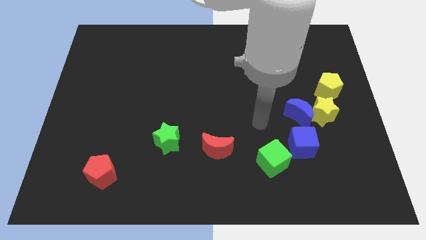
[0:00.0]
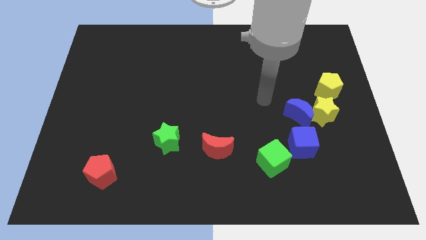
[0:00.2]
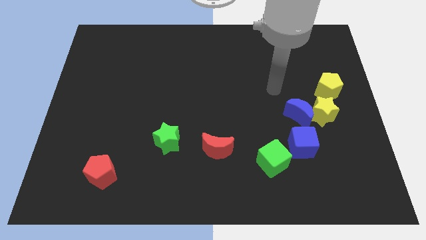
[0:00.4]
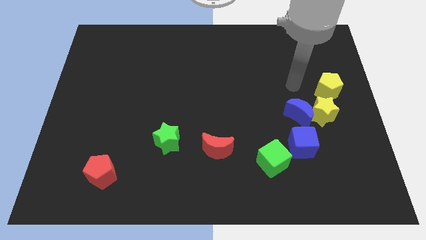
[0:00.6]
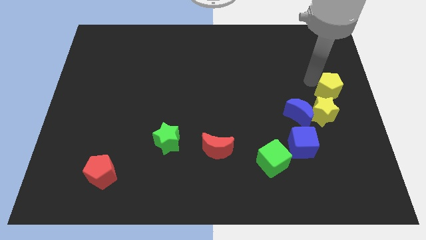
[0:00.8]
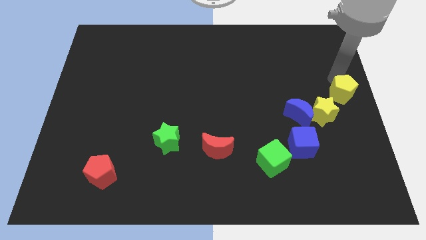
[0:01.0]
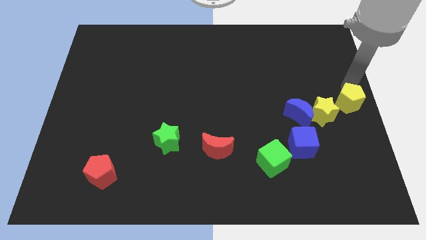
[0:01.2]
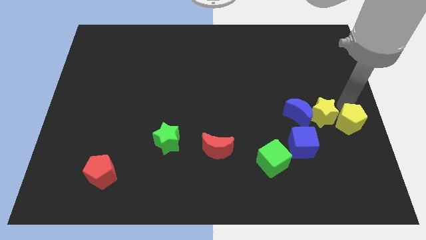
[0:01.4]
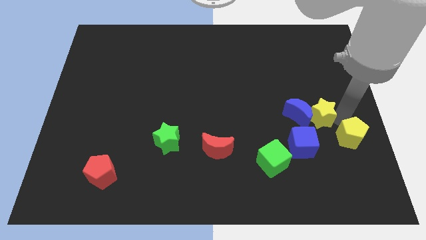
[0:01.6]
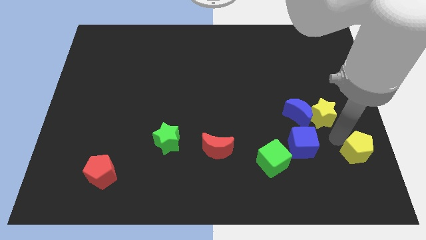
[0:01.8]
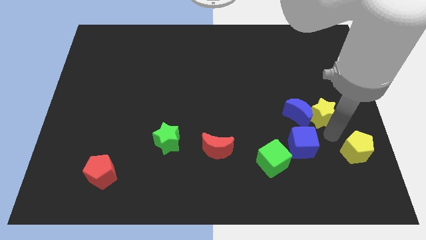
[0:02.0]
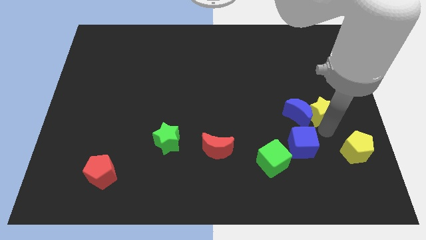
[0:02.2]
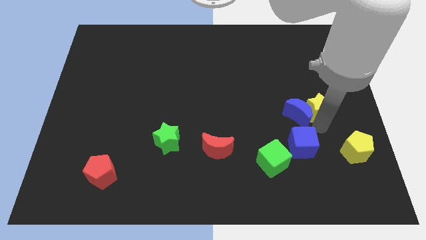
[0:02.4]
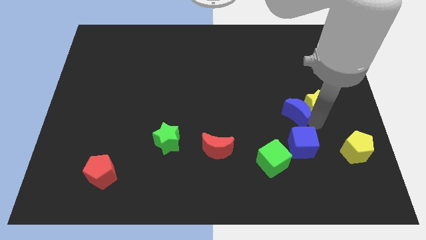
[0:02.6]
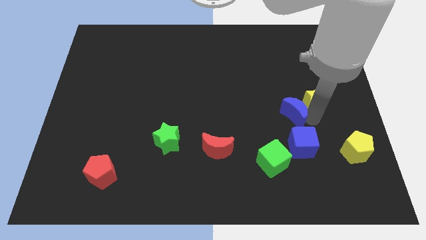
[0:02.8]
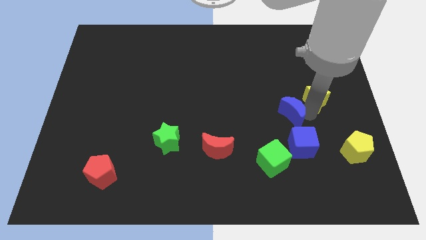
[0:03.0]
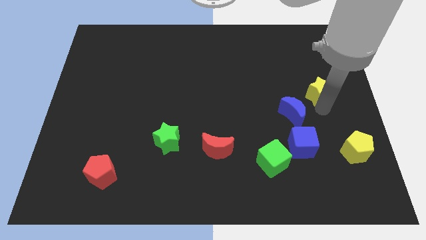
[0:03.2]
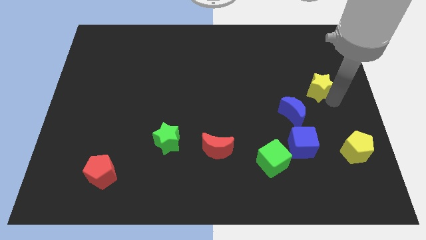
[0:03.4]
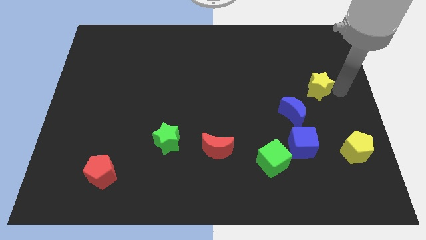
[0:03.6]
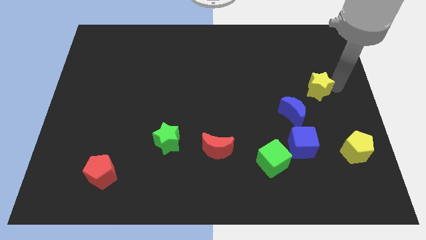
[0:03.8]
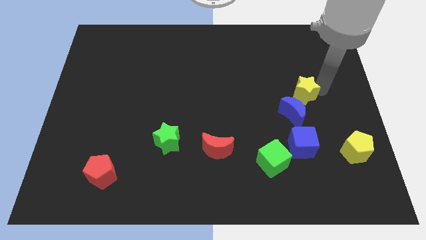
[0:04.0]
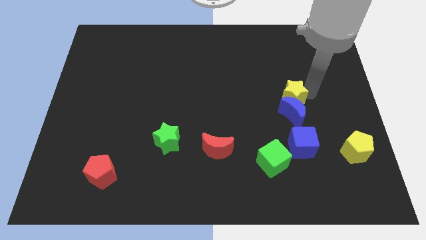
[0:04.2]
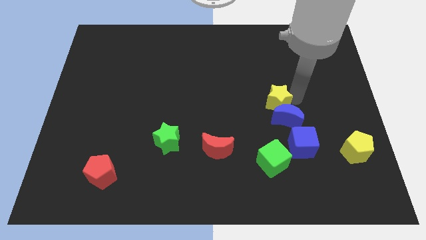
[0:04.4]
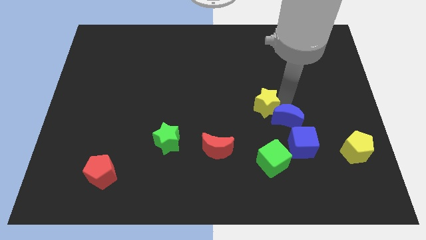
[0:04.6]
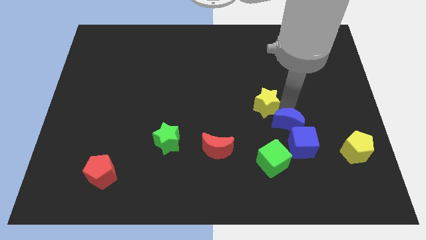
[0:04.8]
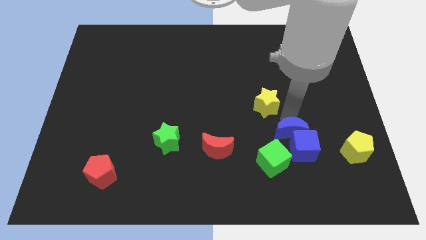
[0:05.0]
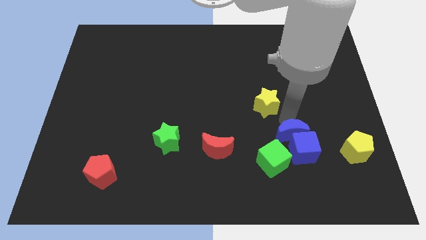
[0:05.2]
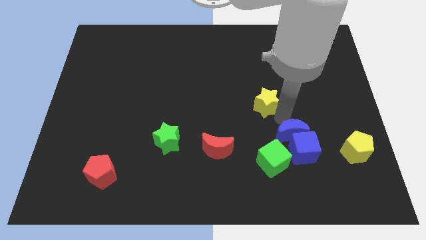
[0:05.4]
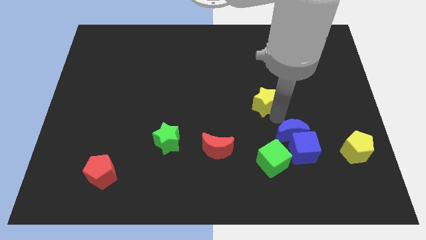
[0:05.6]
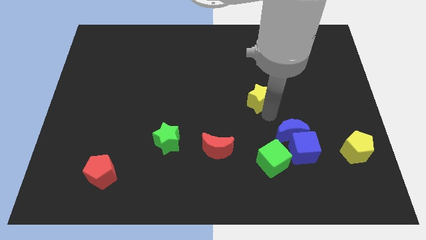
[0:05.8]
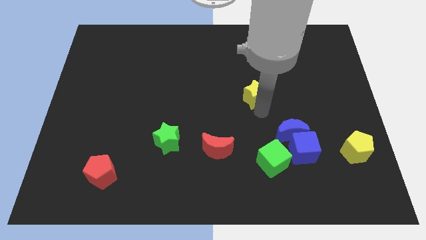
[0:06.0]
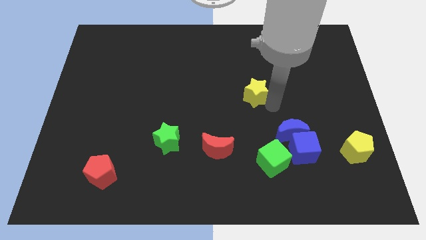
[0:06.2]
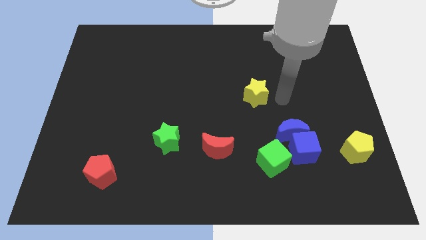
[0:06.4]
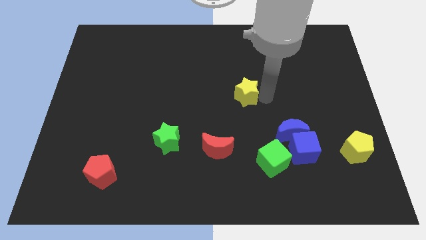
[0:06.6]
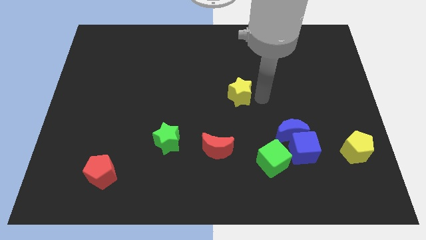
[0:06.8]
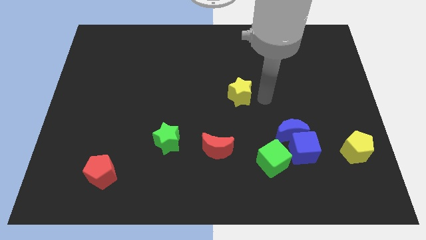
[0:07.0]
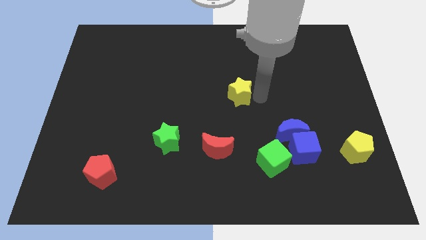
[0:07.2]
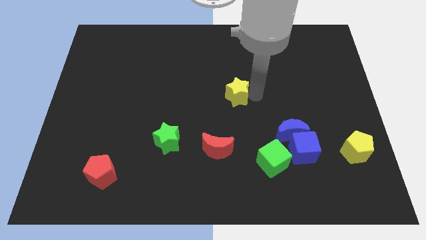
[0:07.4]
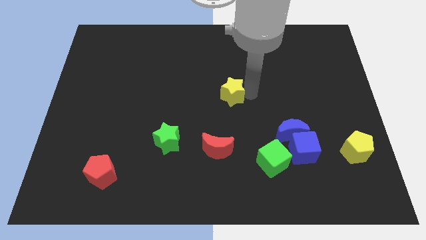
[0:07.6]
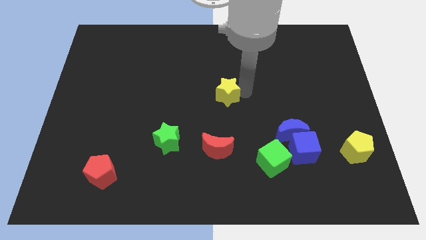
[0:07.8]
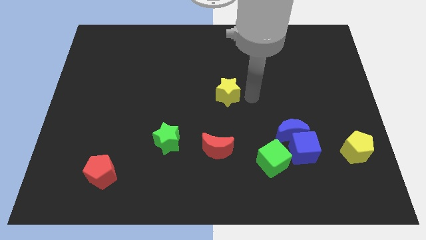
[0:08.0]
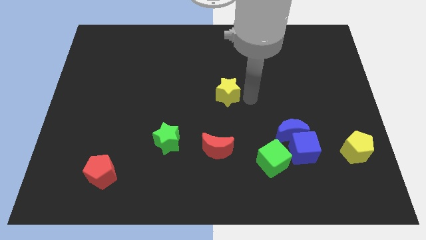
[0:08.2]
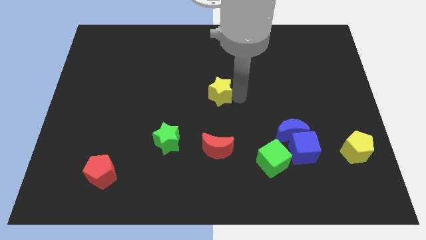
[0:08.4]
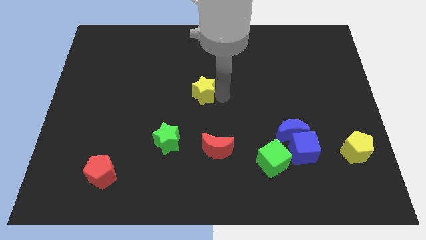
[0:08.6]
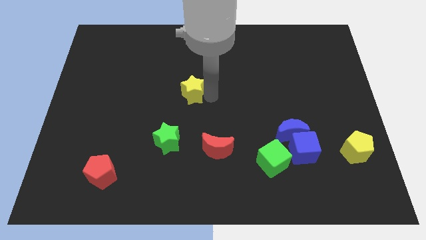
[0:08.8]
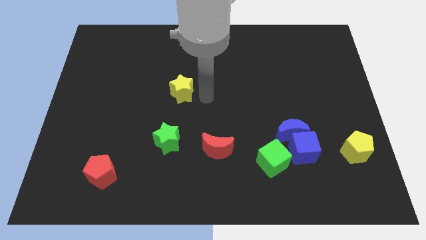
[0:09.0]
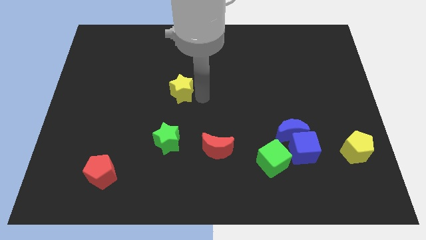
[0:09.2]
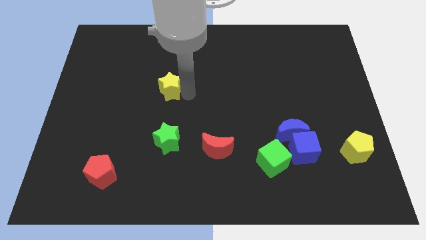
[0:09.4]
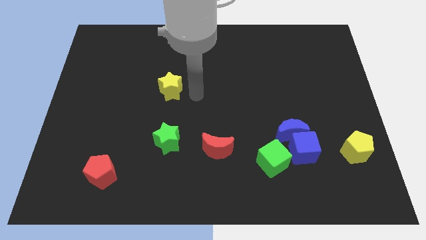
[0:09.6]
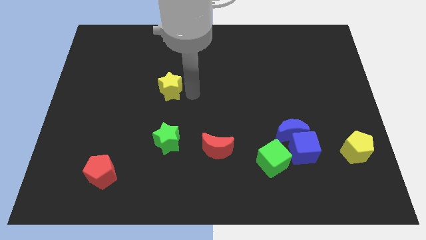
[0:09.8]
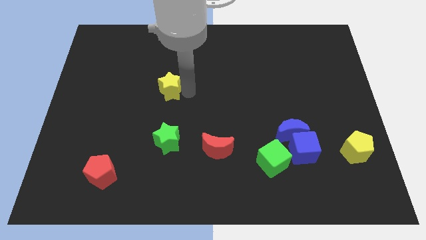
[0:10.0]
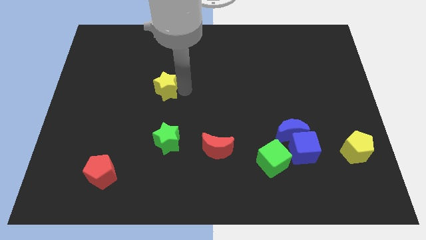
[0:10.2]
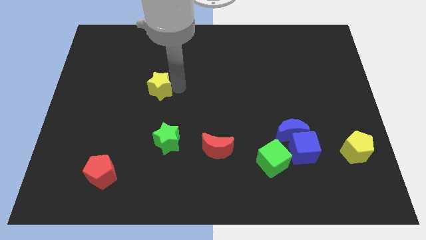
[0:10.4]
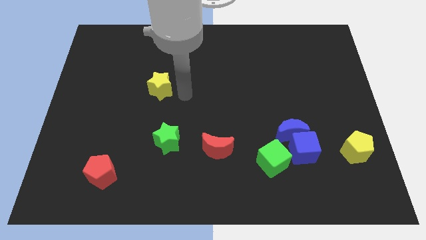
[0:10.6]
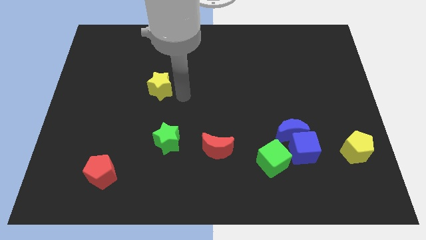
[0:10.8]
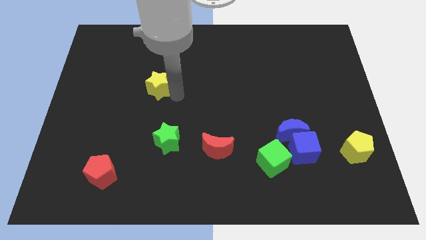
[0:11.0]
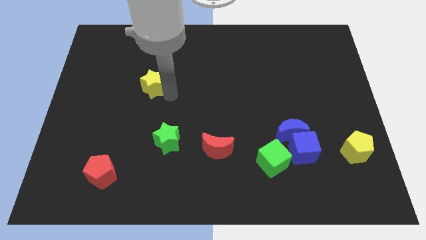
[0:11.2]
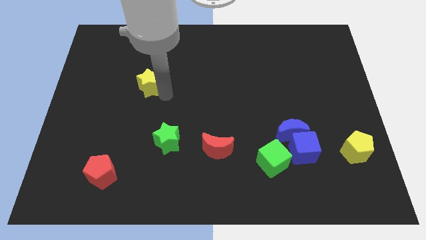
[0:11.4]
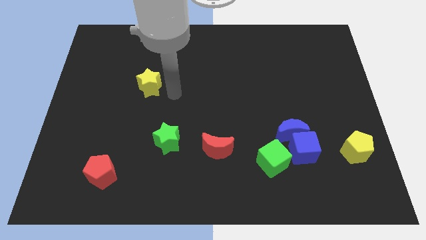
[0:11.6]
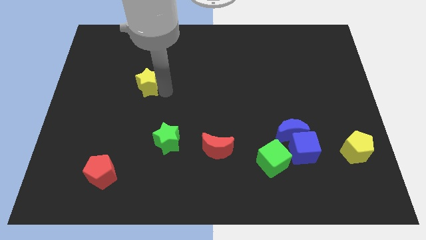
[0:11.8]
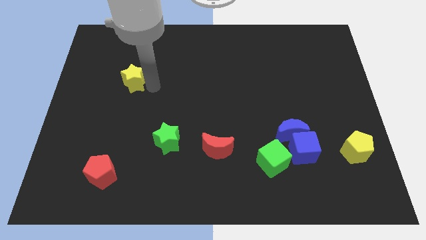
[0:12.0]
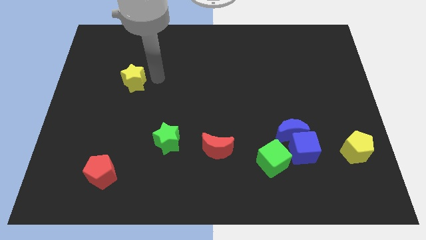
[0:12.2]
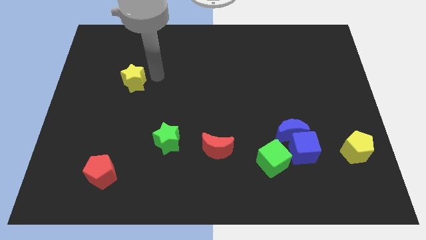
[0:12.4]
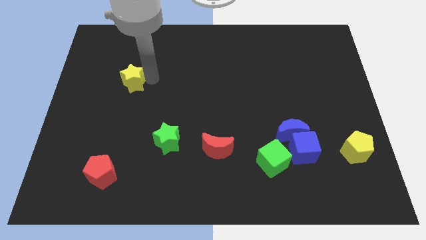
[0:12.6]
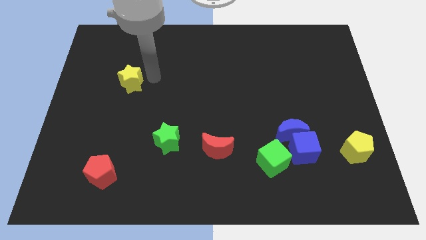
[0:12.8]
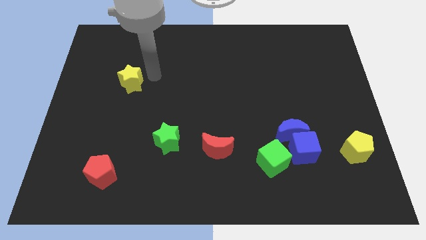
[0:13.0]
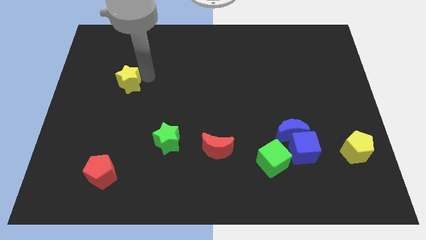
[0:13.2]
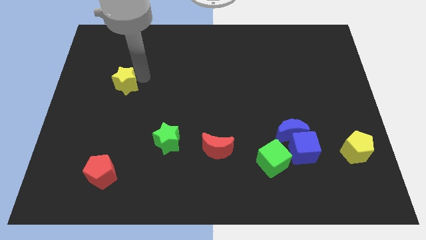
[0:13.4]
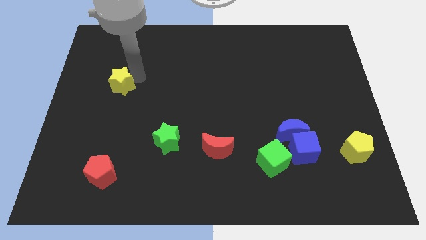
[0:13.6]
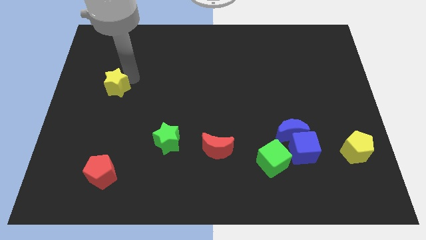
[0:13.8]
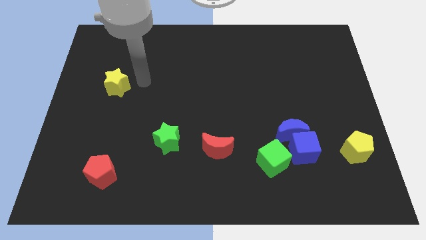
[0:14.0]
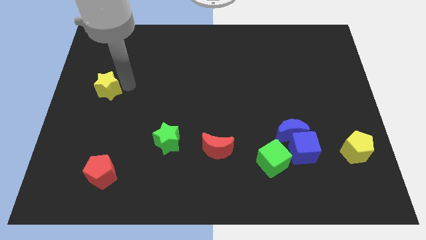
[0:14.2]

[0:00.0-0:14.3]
put the yellow star to the left side
